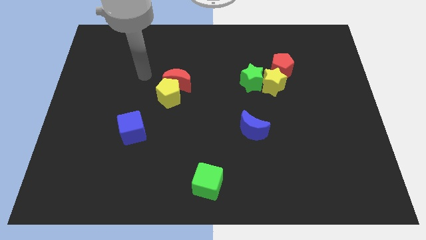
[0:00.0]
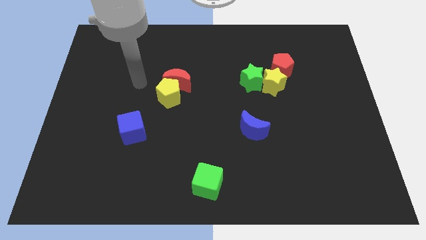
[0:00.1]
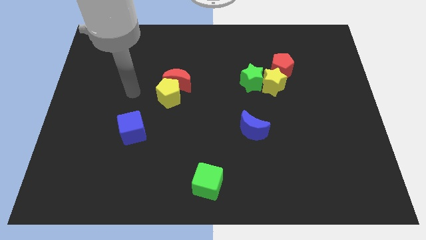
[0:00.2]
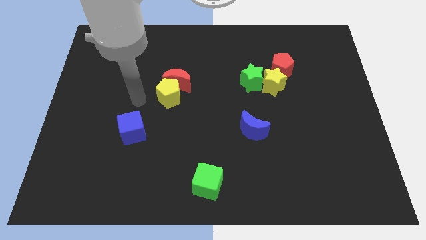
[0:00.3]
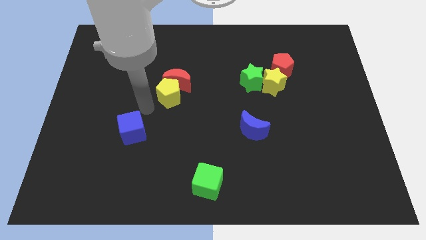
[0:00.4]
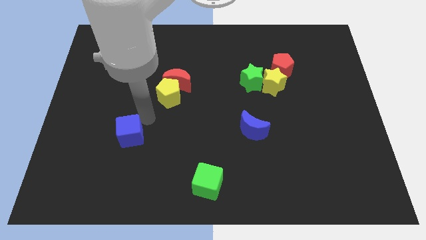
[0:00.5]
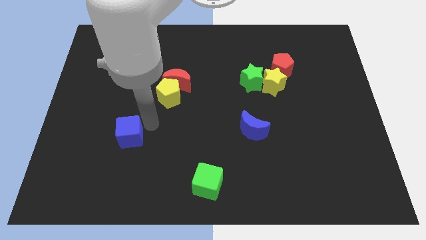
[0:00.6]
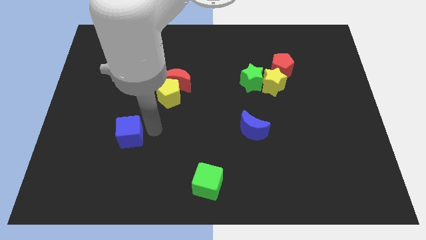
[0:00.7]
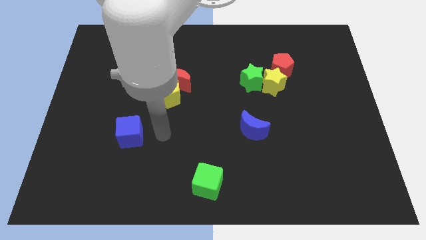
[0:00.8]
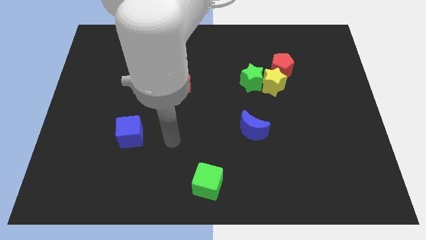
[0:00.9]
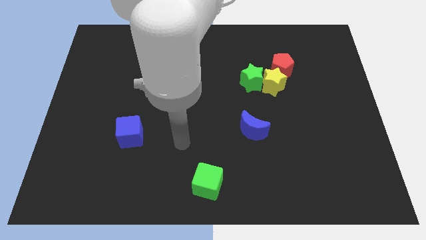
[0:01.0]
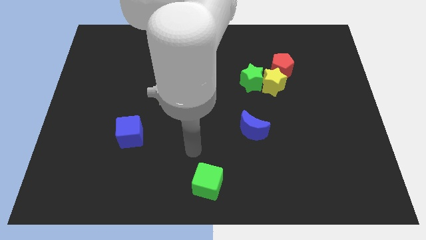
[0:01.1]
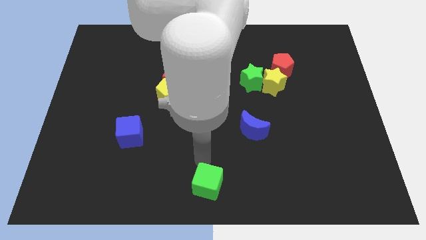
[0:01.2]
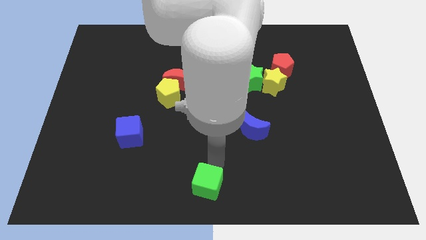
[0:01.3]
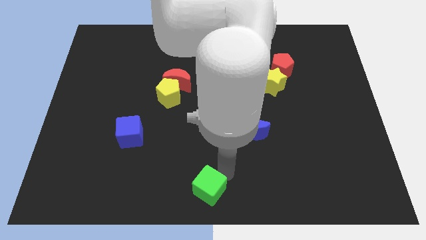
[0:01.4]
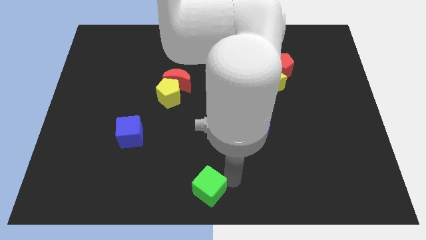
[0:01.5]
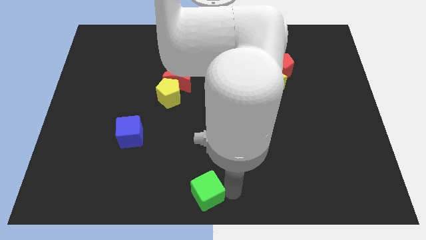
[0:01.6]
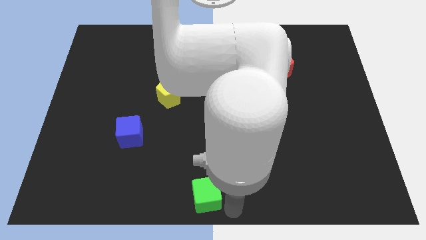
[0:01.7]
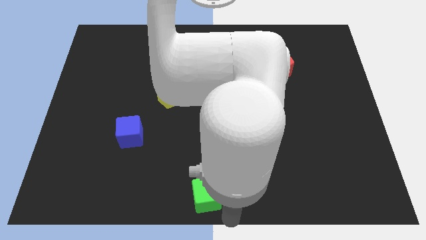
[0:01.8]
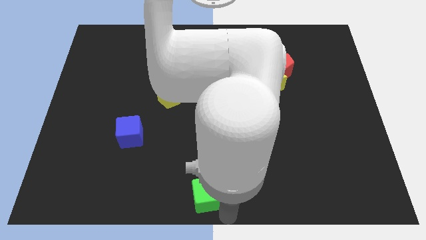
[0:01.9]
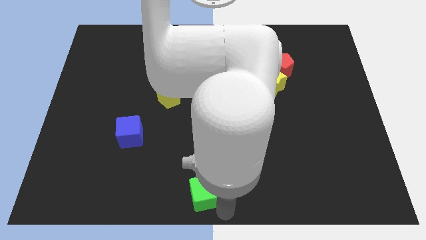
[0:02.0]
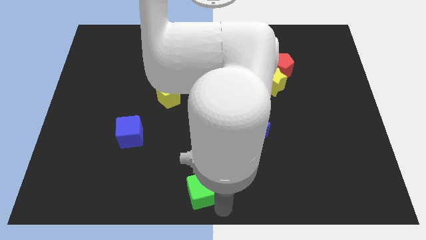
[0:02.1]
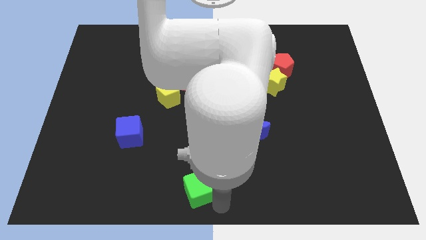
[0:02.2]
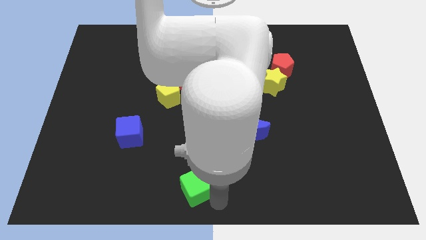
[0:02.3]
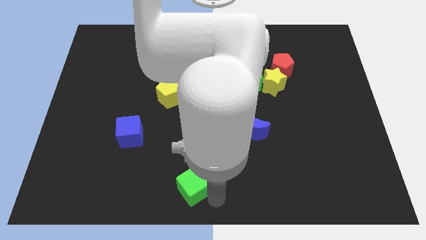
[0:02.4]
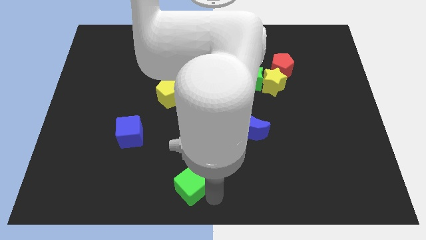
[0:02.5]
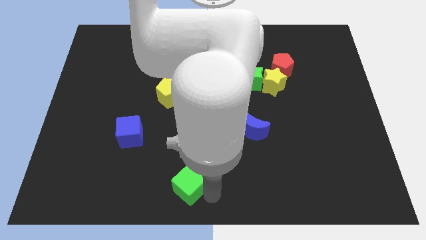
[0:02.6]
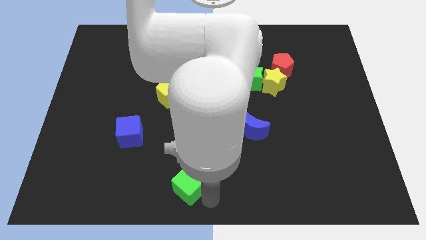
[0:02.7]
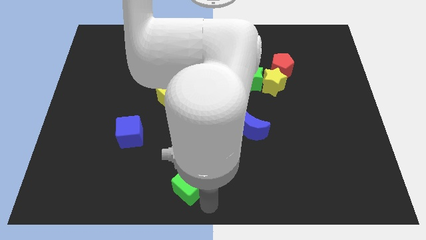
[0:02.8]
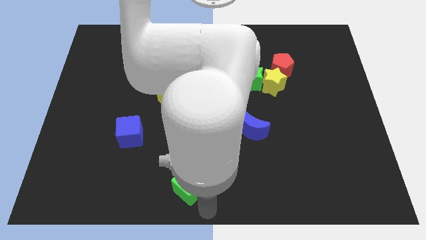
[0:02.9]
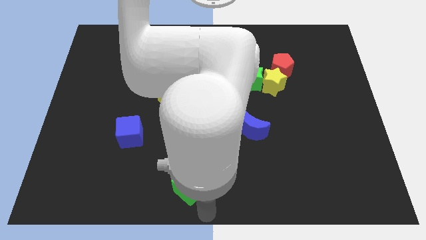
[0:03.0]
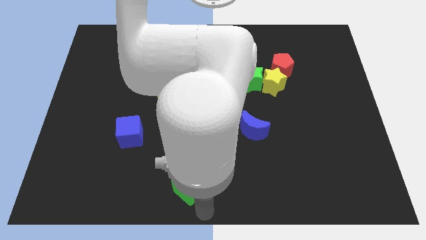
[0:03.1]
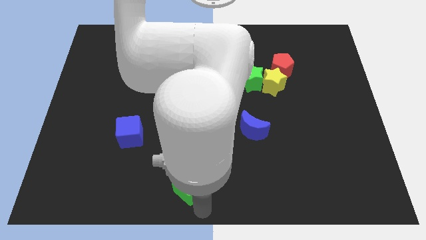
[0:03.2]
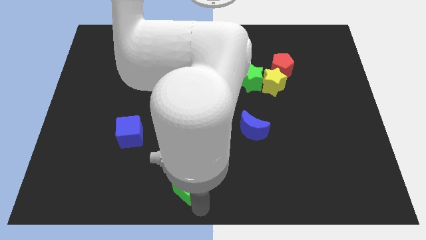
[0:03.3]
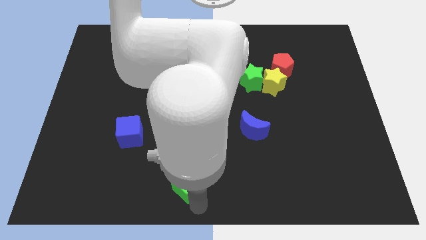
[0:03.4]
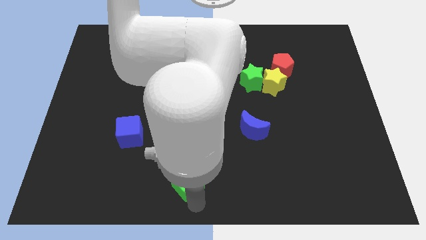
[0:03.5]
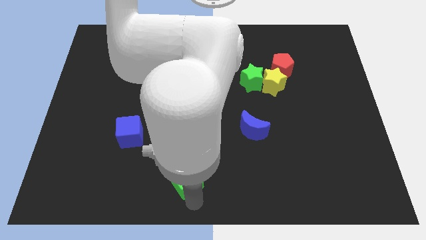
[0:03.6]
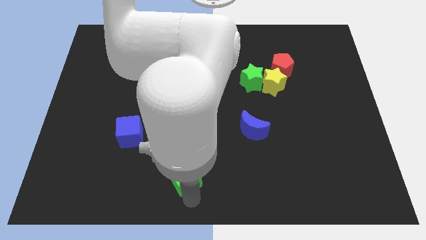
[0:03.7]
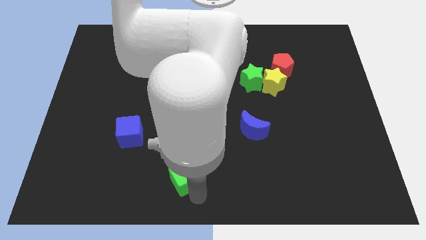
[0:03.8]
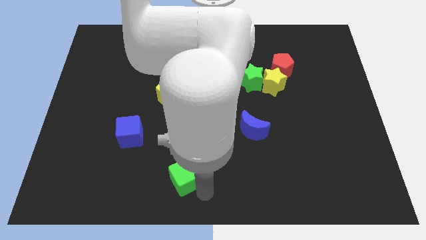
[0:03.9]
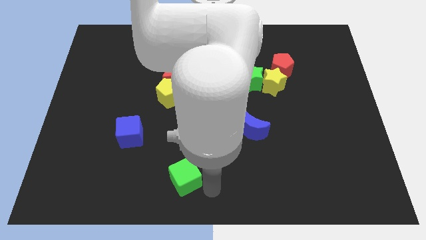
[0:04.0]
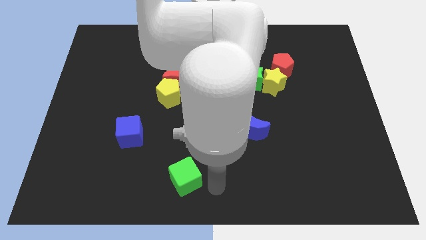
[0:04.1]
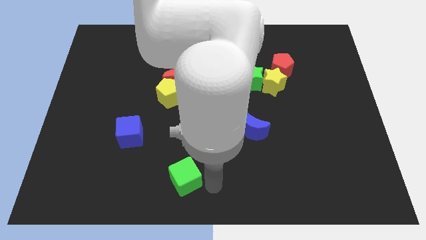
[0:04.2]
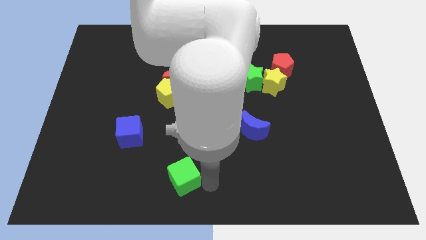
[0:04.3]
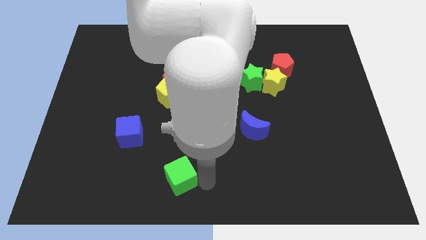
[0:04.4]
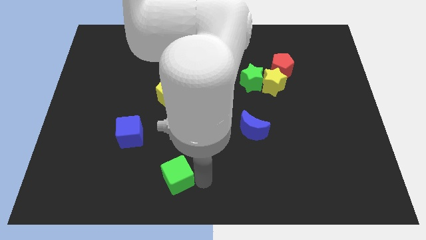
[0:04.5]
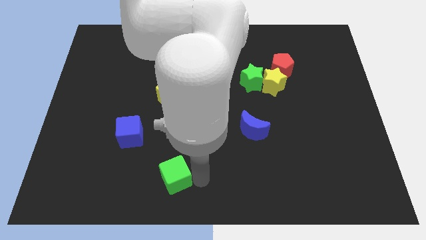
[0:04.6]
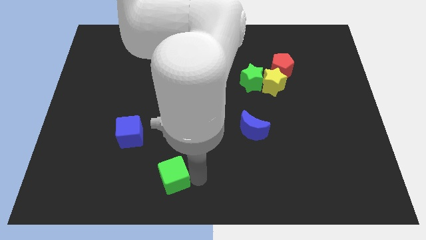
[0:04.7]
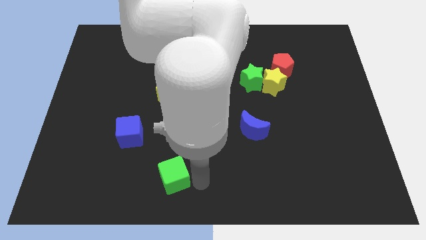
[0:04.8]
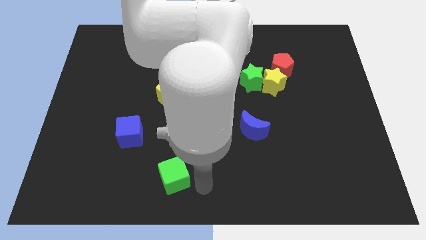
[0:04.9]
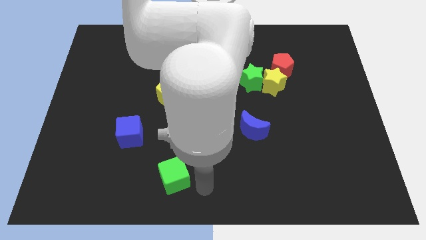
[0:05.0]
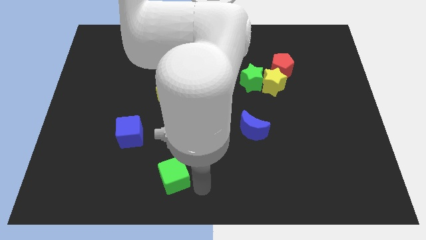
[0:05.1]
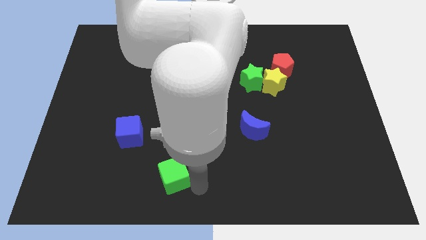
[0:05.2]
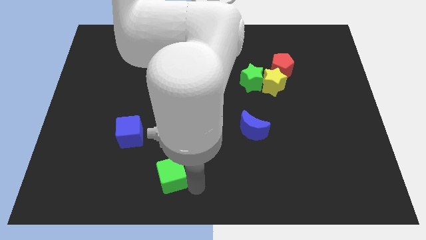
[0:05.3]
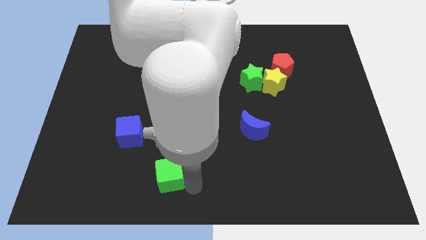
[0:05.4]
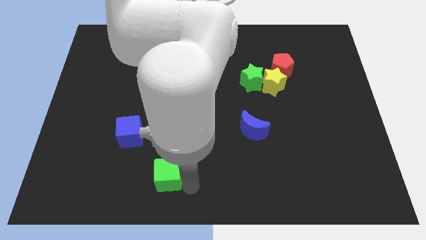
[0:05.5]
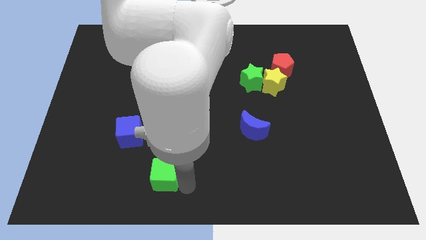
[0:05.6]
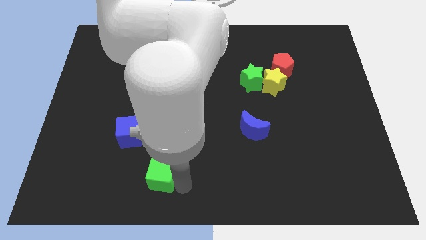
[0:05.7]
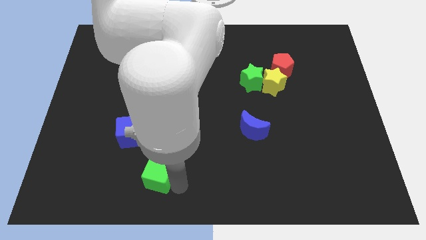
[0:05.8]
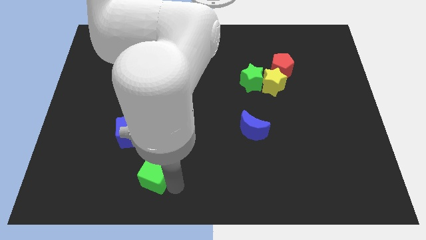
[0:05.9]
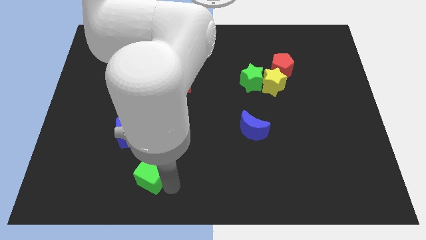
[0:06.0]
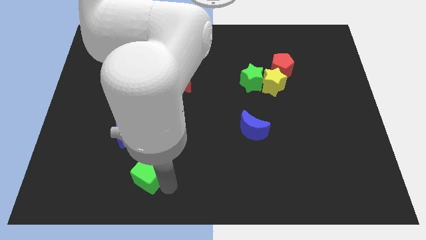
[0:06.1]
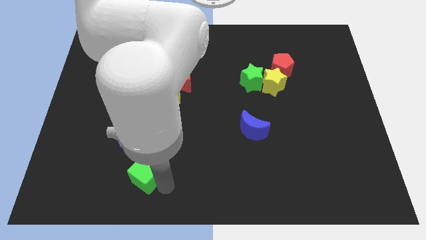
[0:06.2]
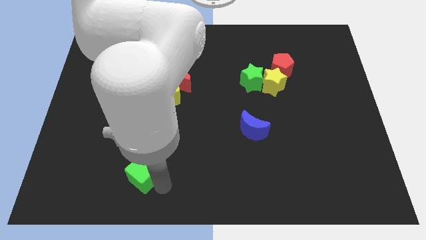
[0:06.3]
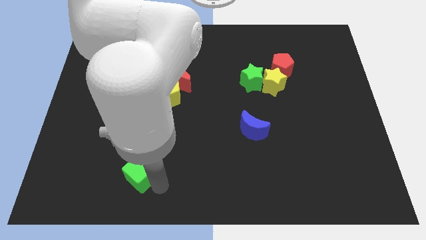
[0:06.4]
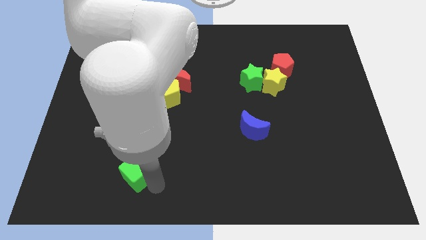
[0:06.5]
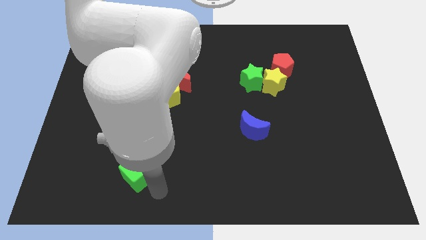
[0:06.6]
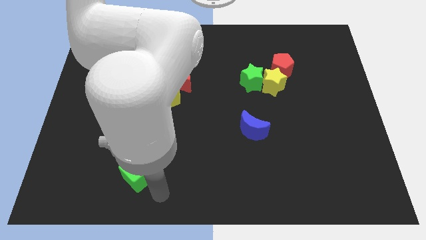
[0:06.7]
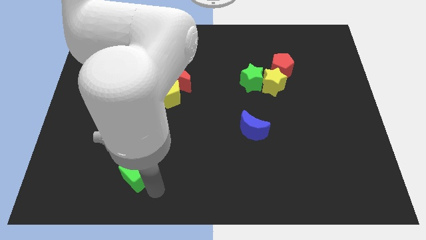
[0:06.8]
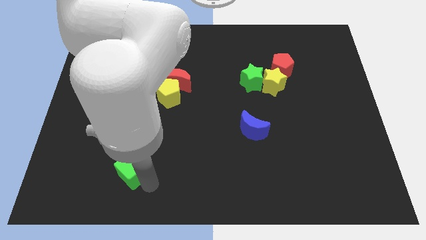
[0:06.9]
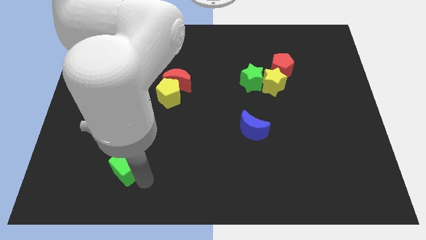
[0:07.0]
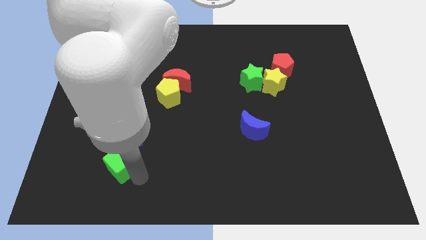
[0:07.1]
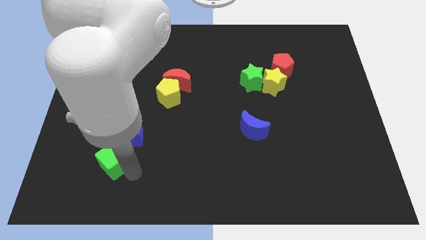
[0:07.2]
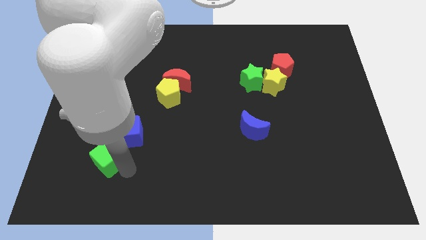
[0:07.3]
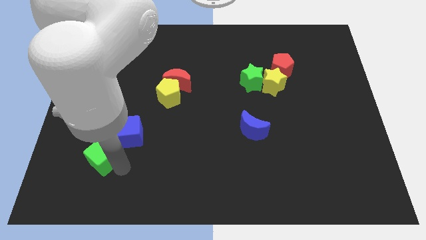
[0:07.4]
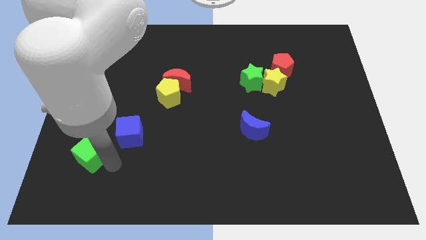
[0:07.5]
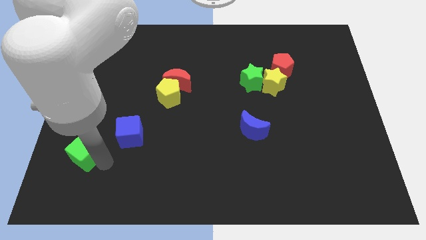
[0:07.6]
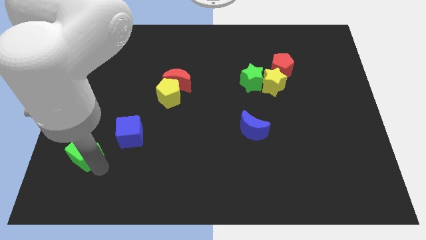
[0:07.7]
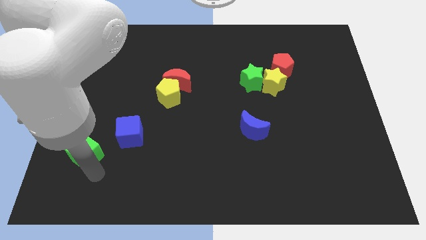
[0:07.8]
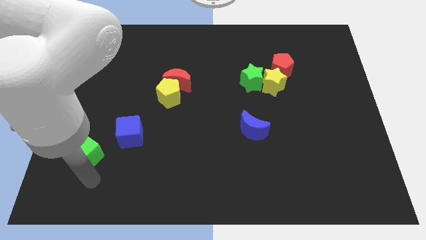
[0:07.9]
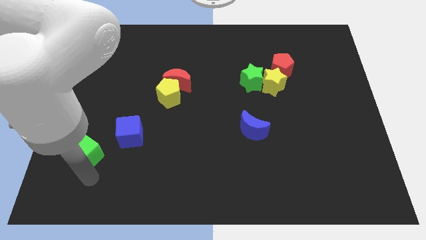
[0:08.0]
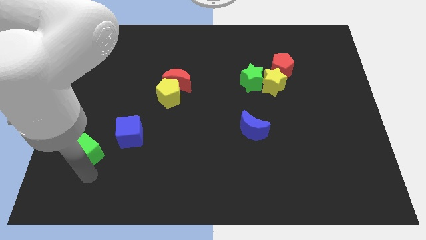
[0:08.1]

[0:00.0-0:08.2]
slide the green cube left of the blue cube
